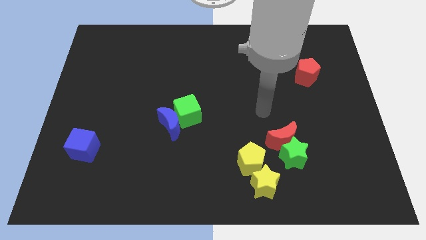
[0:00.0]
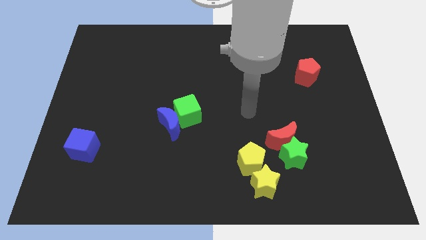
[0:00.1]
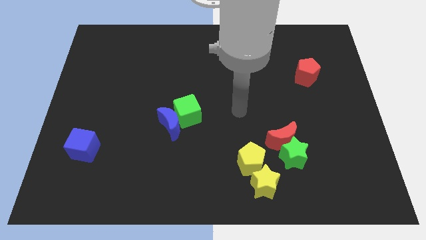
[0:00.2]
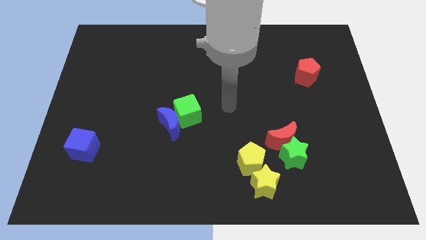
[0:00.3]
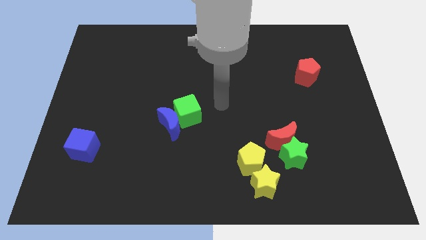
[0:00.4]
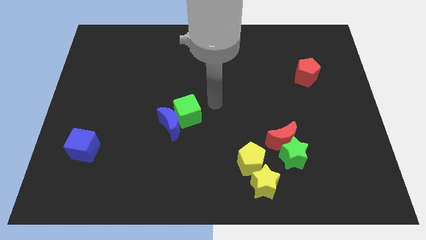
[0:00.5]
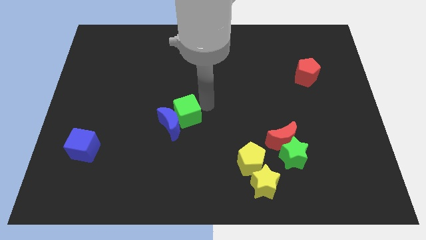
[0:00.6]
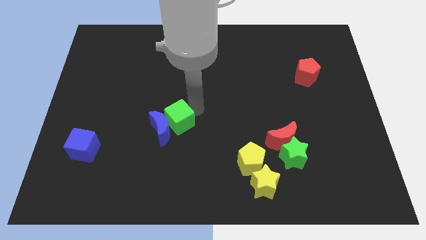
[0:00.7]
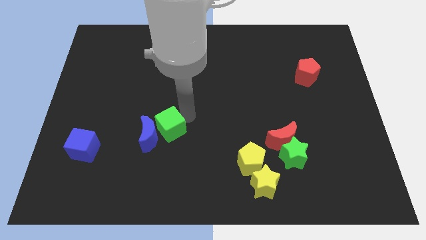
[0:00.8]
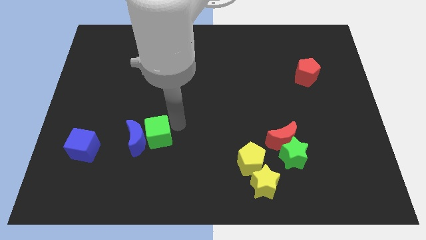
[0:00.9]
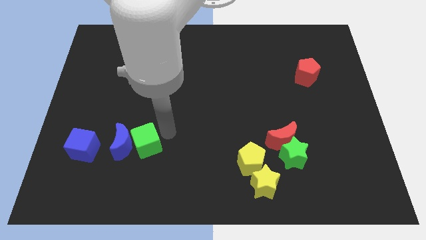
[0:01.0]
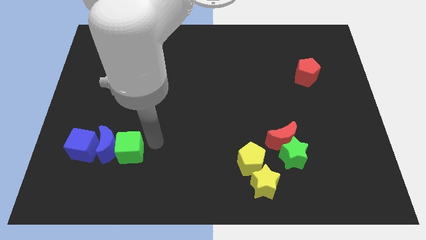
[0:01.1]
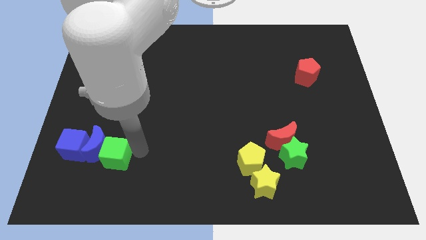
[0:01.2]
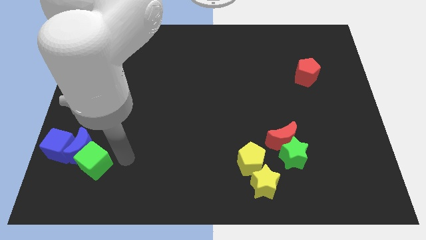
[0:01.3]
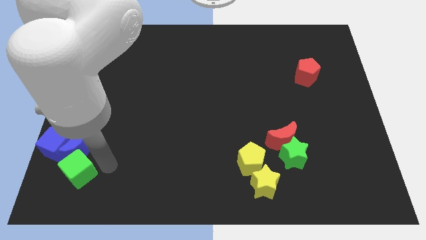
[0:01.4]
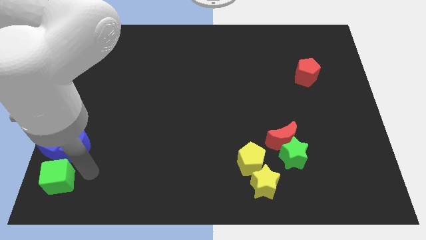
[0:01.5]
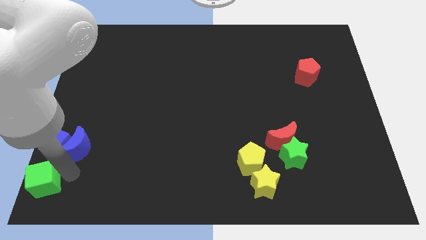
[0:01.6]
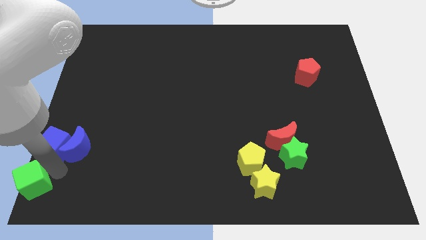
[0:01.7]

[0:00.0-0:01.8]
separate the blue moon from the green cube

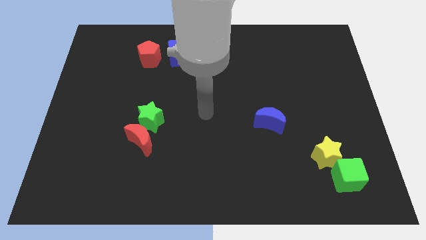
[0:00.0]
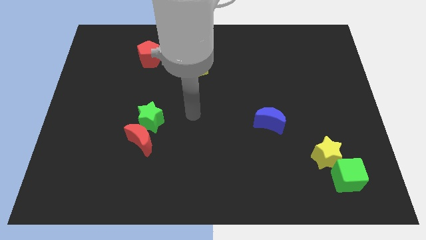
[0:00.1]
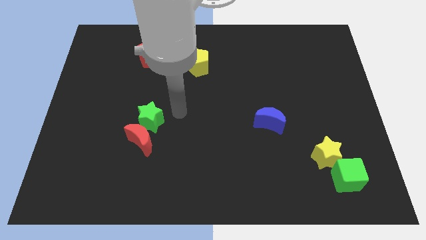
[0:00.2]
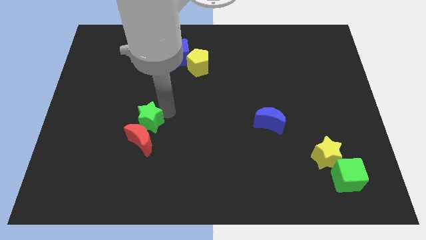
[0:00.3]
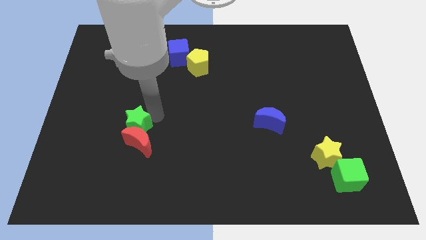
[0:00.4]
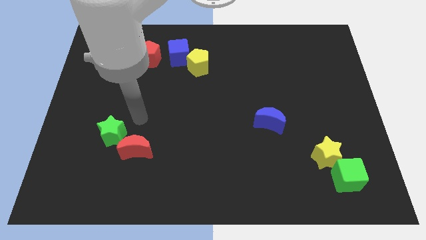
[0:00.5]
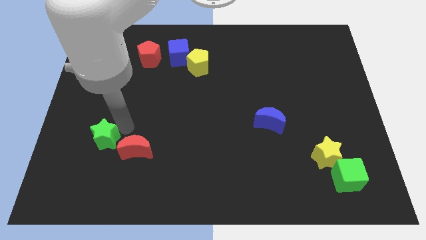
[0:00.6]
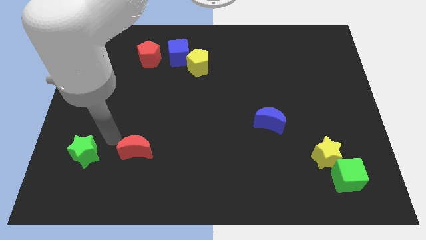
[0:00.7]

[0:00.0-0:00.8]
pull the red moon apart from the green star

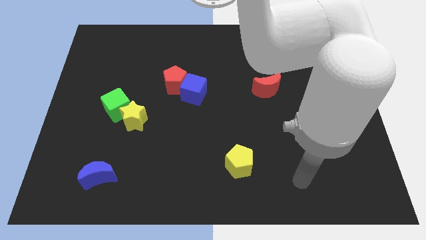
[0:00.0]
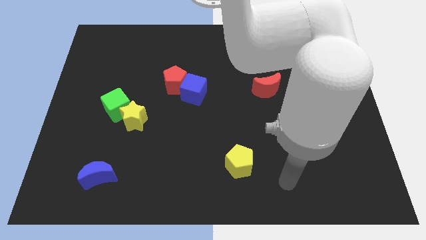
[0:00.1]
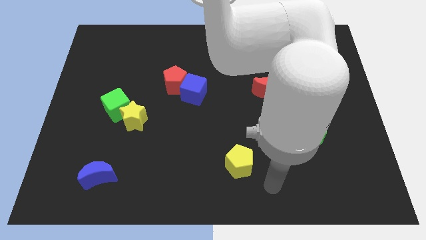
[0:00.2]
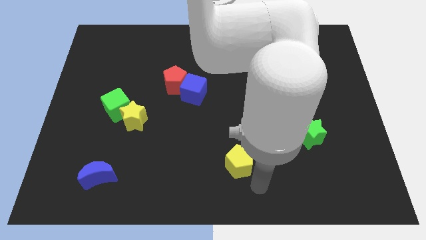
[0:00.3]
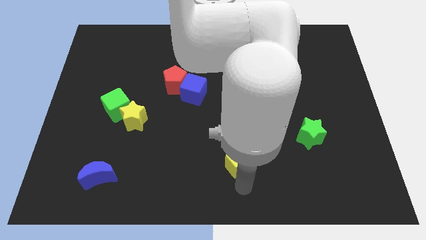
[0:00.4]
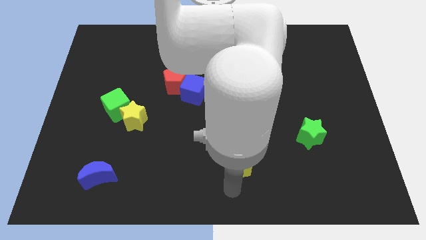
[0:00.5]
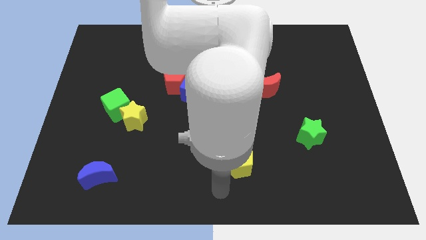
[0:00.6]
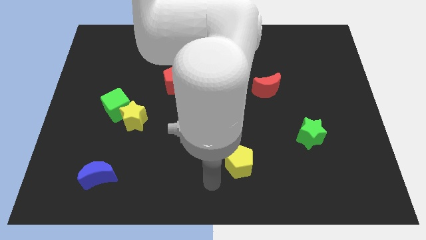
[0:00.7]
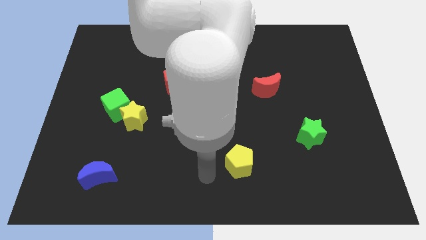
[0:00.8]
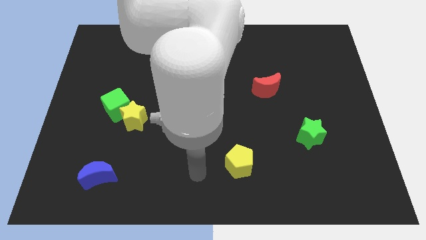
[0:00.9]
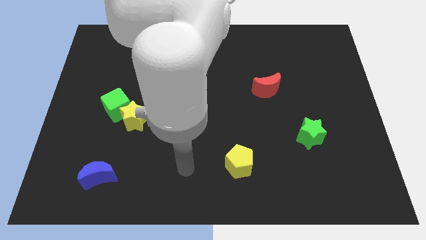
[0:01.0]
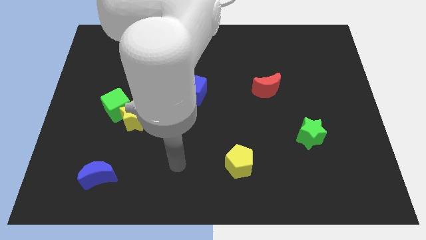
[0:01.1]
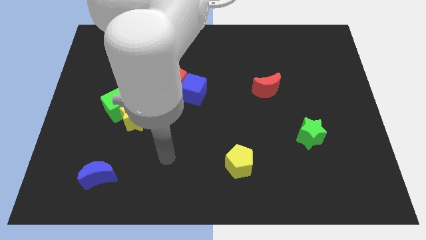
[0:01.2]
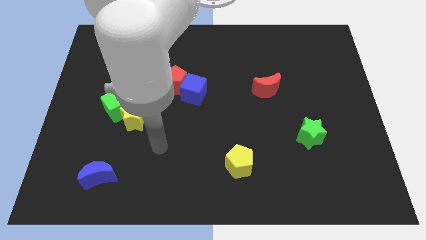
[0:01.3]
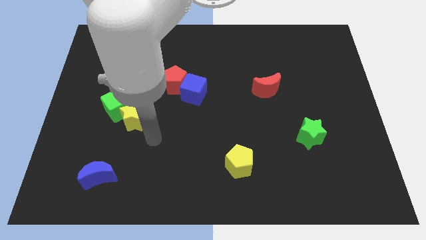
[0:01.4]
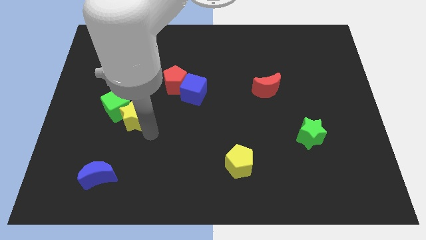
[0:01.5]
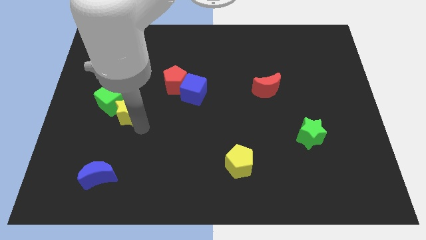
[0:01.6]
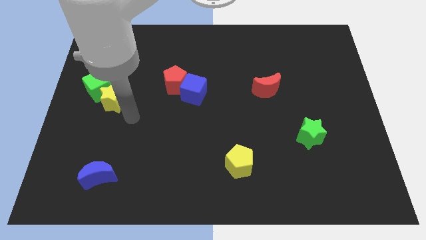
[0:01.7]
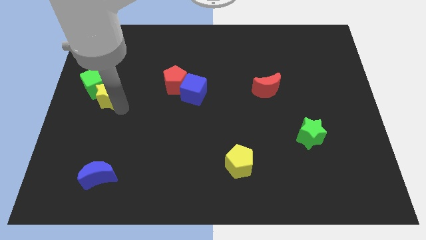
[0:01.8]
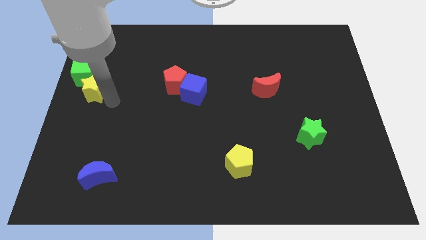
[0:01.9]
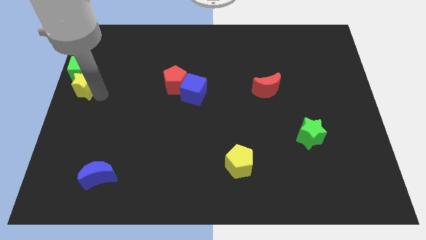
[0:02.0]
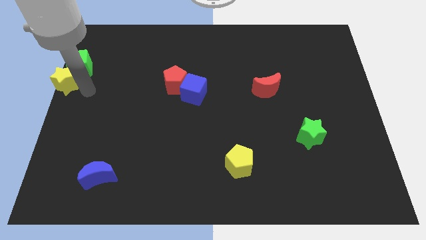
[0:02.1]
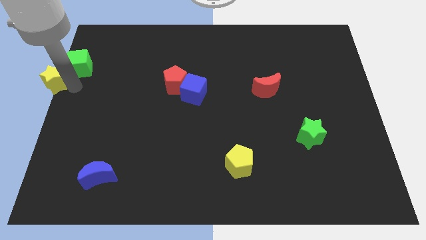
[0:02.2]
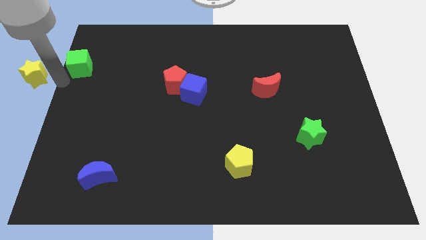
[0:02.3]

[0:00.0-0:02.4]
pull the green cube apart from the yellow star

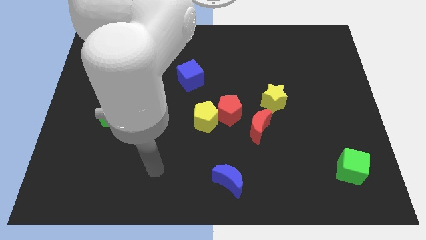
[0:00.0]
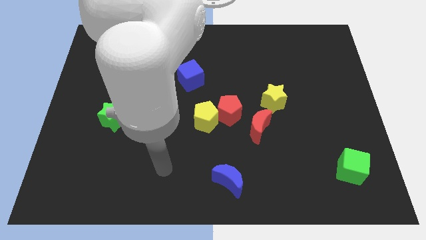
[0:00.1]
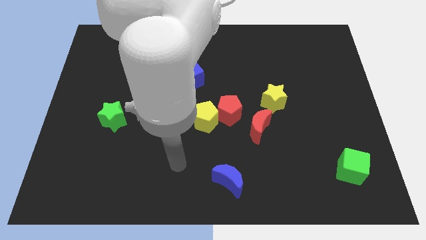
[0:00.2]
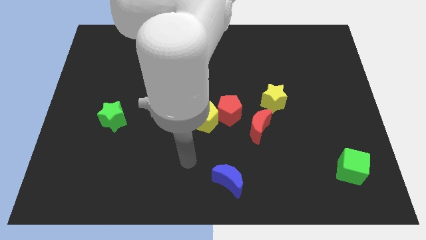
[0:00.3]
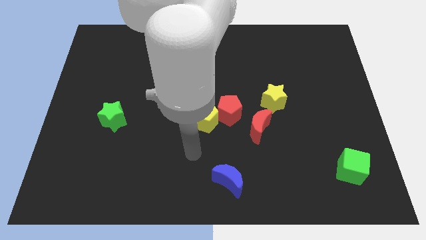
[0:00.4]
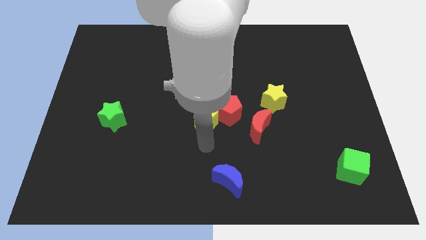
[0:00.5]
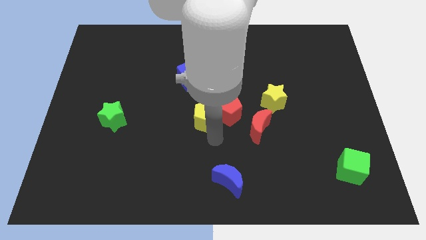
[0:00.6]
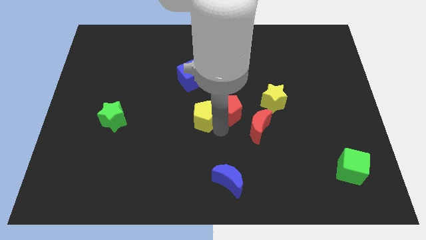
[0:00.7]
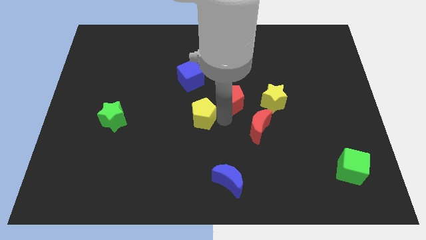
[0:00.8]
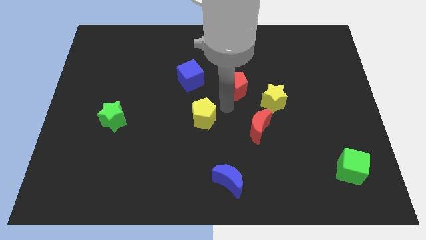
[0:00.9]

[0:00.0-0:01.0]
move the yellow pentagon away from the red pentagon

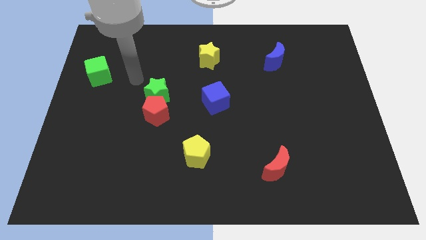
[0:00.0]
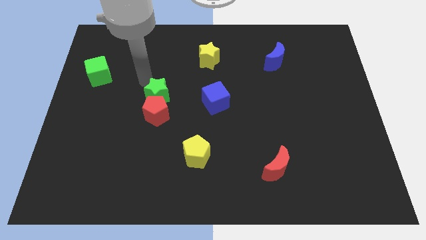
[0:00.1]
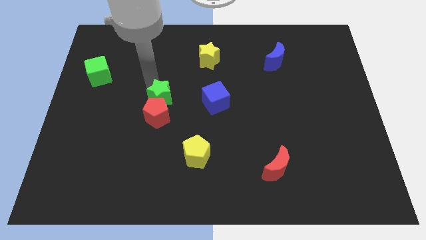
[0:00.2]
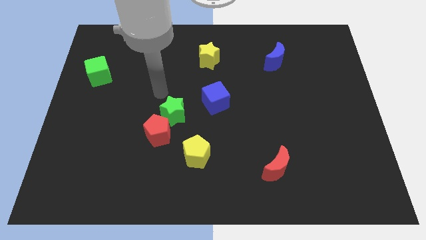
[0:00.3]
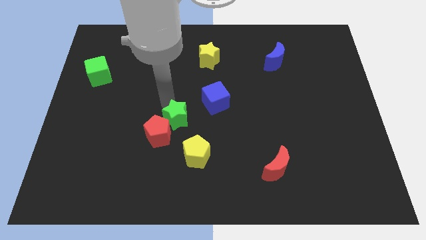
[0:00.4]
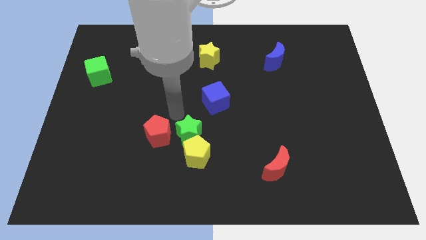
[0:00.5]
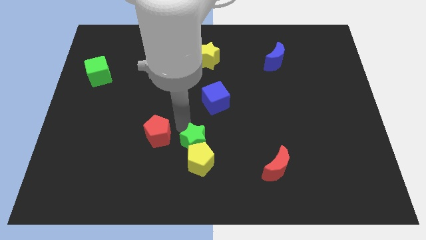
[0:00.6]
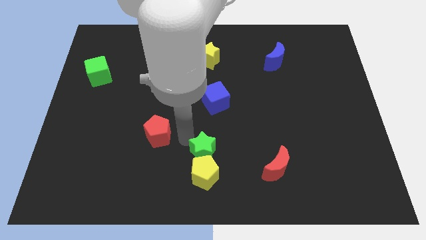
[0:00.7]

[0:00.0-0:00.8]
pull the red pentagon apart from the green star

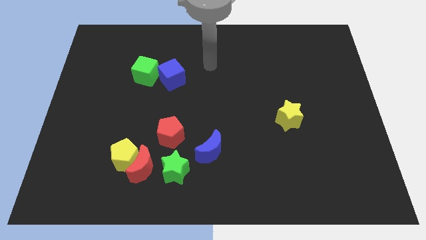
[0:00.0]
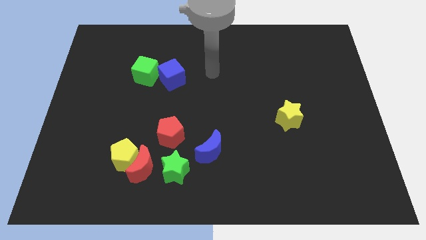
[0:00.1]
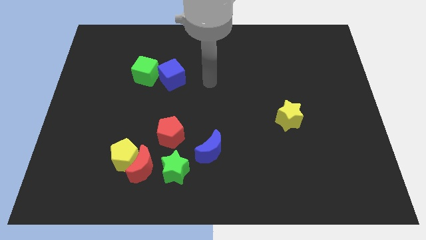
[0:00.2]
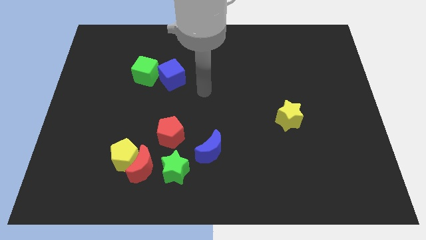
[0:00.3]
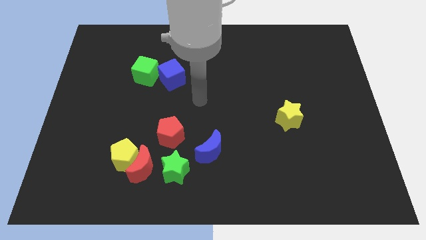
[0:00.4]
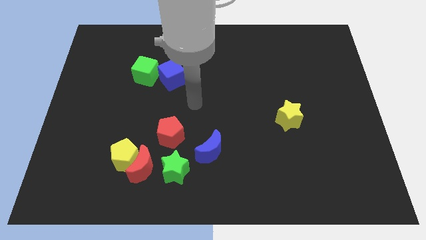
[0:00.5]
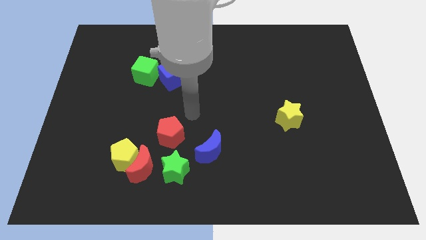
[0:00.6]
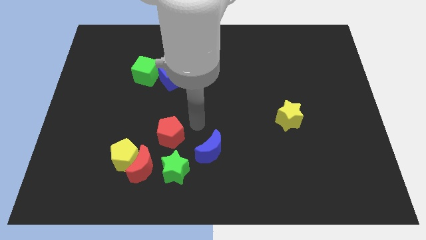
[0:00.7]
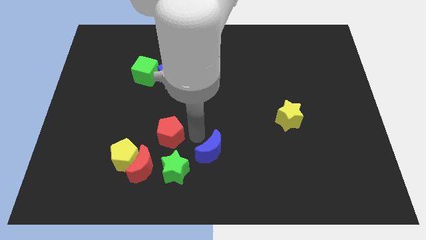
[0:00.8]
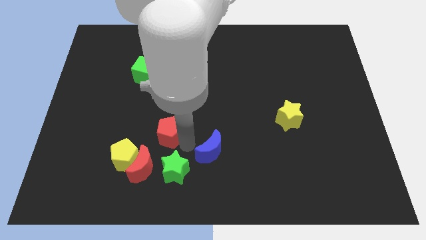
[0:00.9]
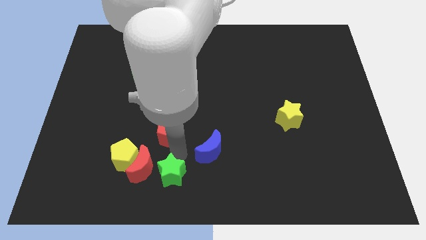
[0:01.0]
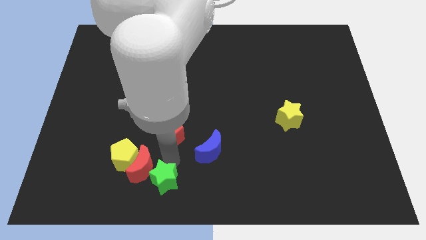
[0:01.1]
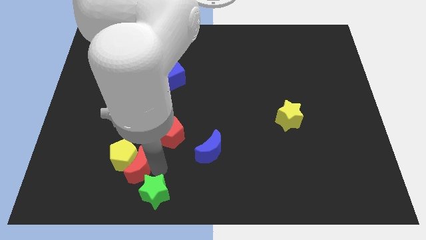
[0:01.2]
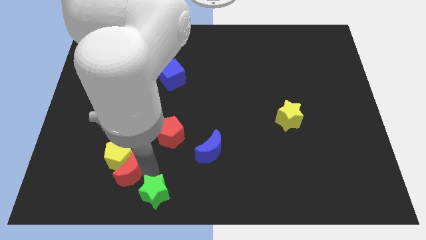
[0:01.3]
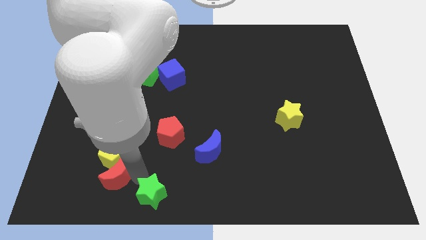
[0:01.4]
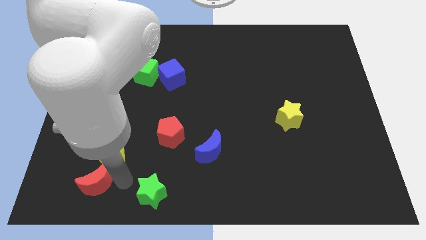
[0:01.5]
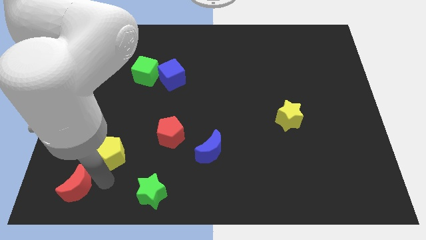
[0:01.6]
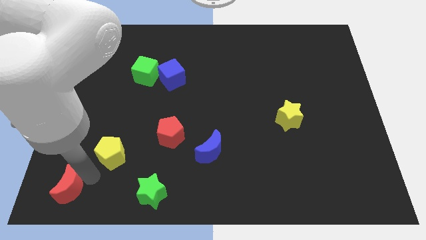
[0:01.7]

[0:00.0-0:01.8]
pull the yellow pentagon apart from the red moon

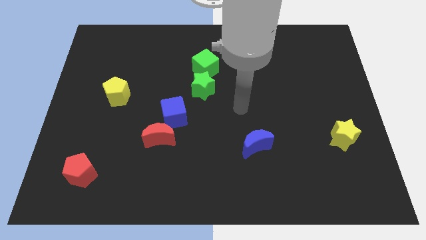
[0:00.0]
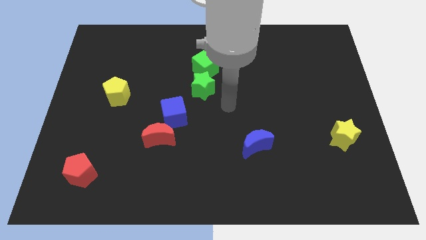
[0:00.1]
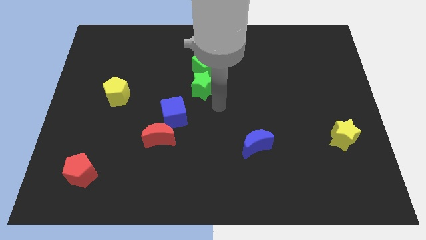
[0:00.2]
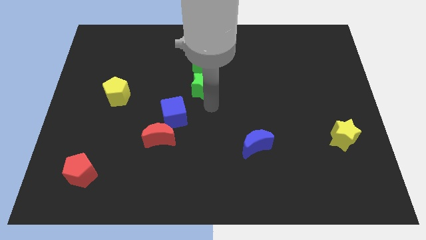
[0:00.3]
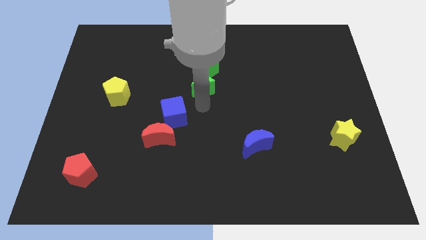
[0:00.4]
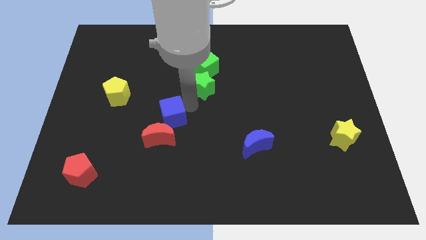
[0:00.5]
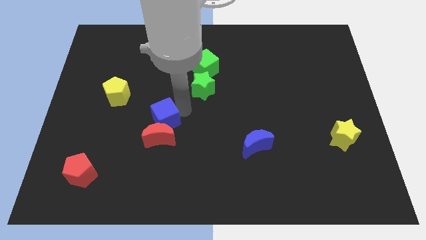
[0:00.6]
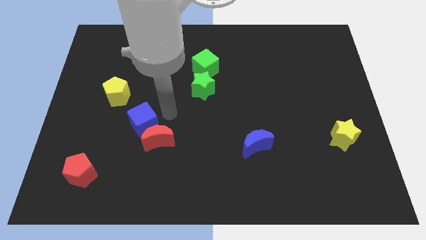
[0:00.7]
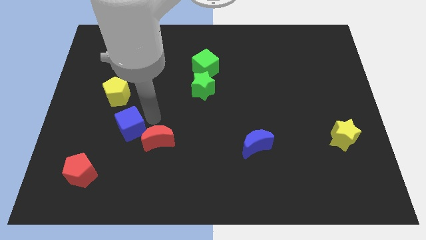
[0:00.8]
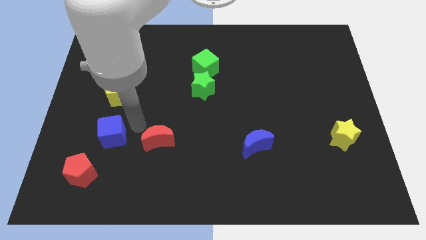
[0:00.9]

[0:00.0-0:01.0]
separate the red moon from the blue cube
